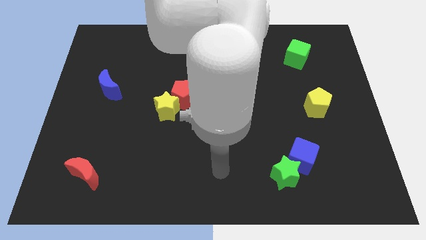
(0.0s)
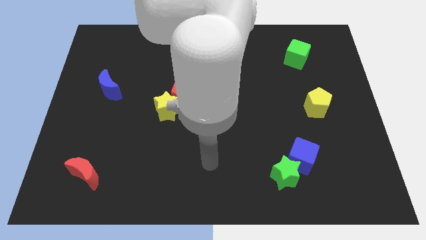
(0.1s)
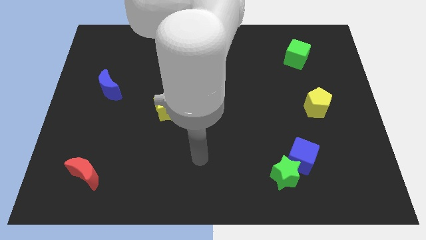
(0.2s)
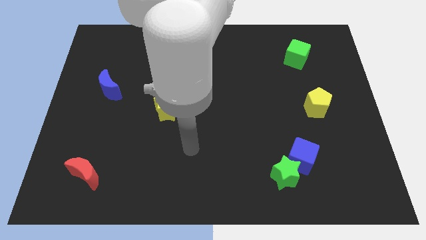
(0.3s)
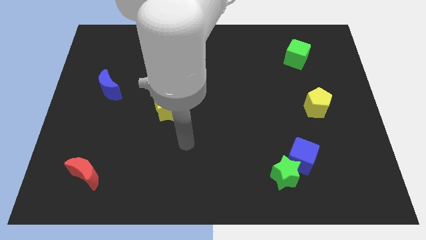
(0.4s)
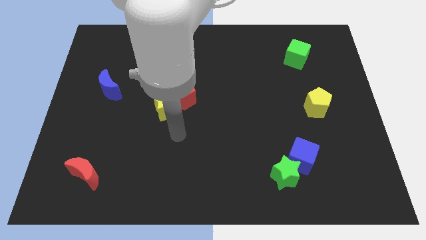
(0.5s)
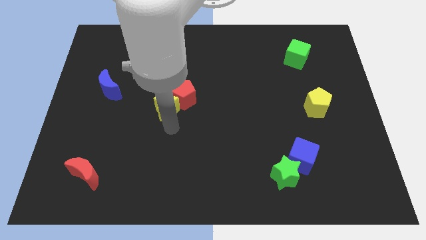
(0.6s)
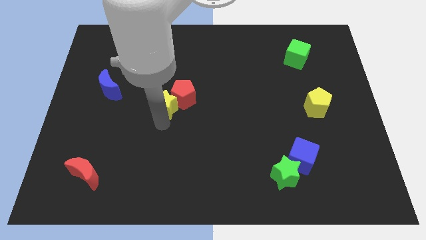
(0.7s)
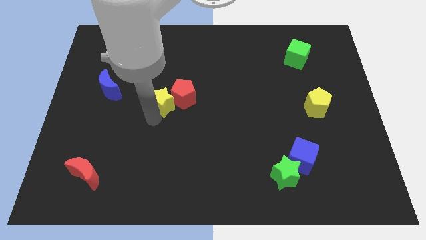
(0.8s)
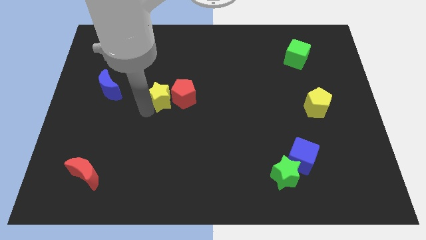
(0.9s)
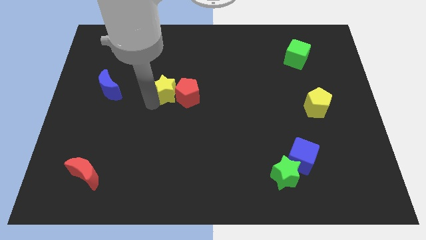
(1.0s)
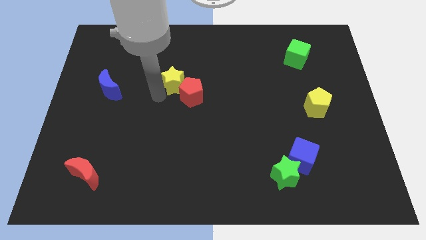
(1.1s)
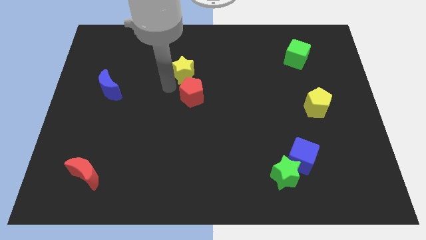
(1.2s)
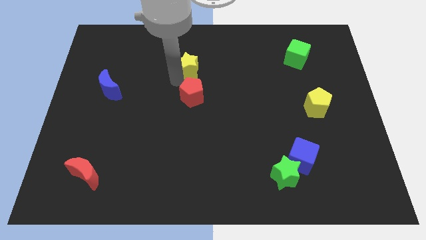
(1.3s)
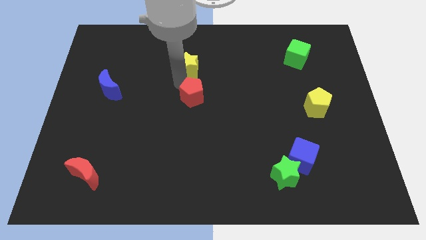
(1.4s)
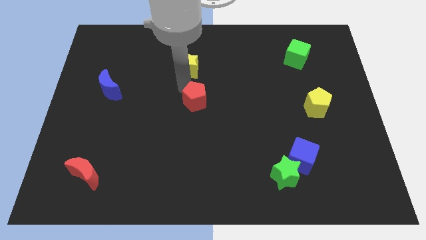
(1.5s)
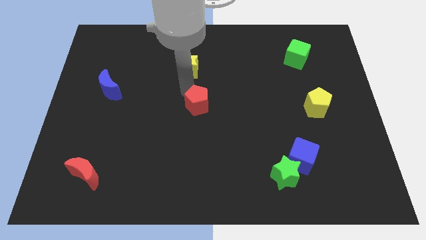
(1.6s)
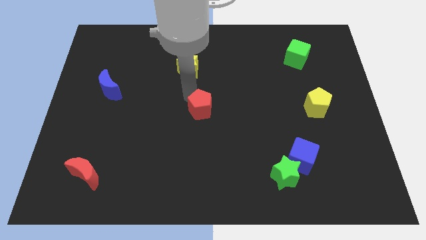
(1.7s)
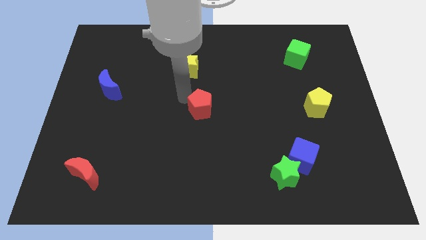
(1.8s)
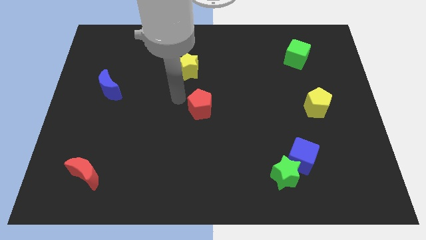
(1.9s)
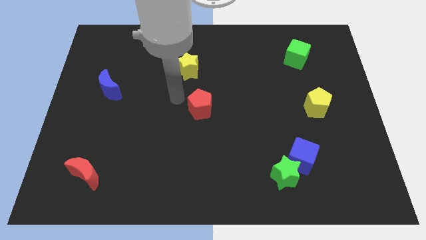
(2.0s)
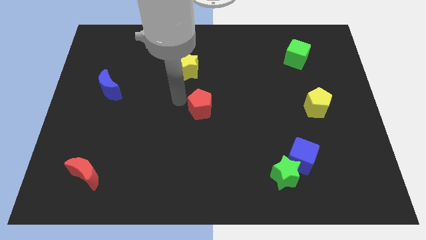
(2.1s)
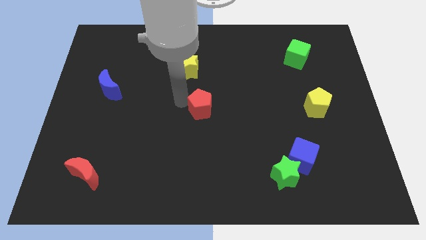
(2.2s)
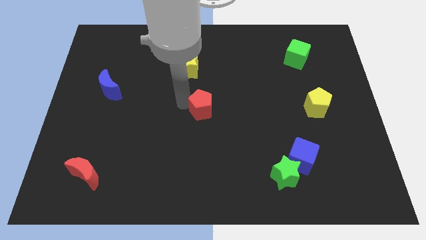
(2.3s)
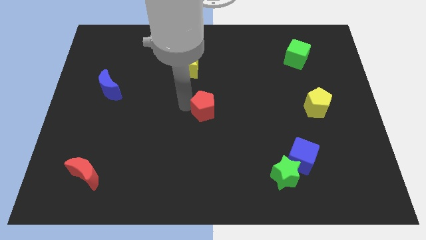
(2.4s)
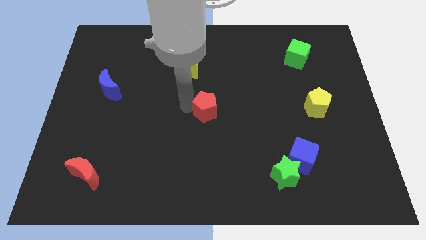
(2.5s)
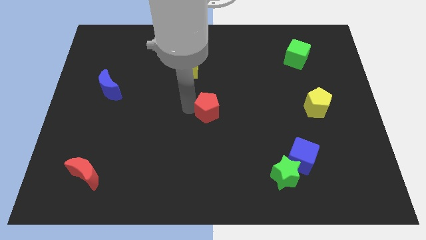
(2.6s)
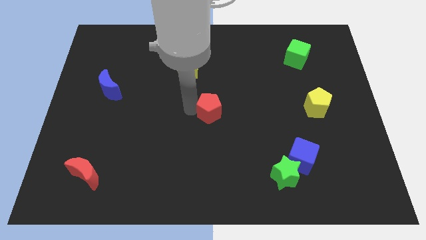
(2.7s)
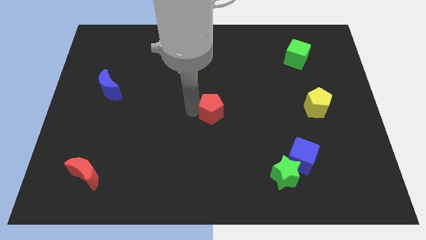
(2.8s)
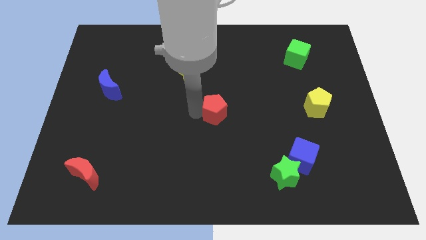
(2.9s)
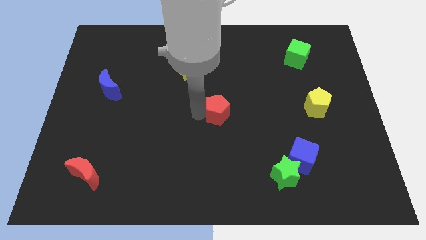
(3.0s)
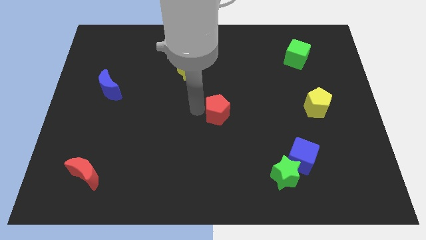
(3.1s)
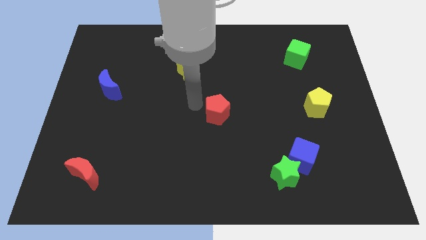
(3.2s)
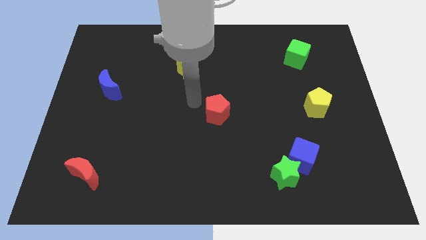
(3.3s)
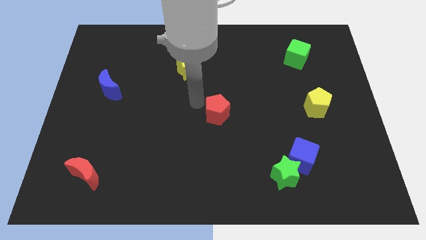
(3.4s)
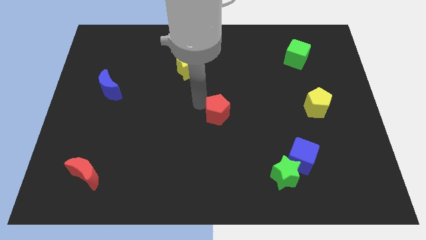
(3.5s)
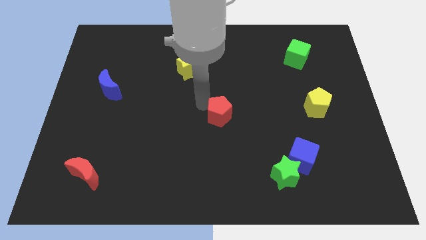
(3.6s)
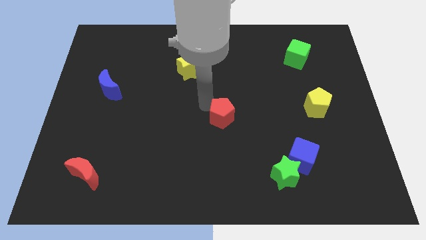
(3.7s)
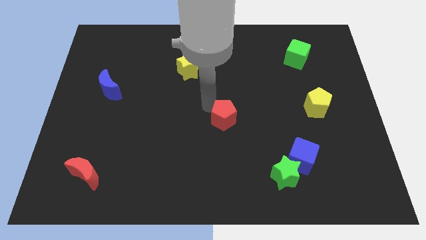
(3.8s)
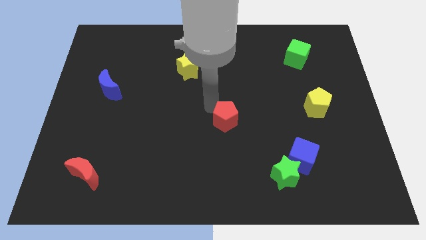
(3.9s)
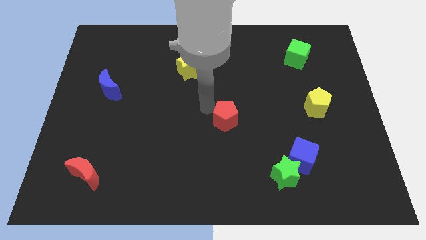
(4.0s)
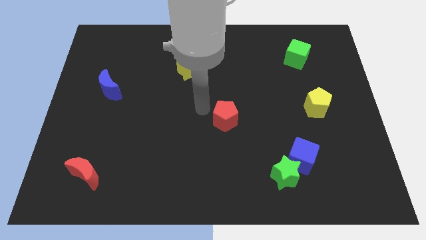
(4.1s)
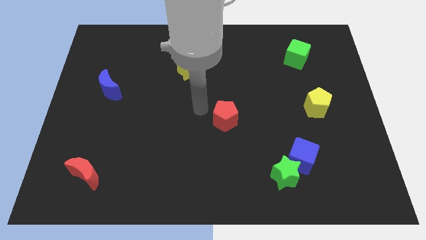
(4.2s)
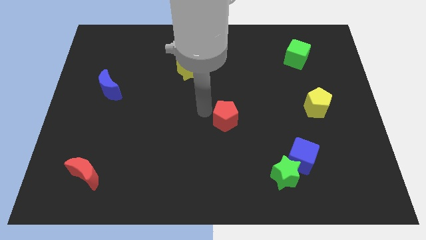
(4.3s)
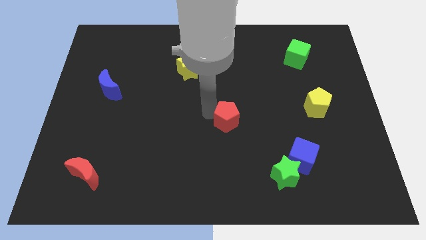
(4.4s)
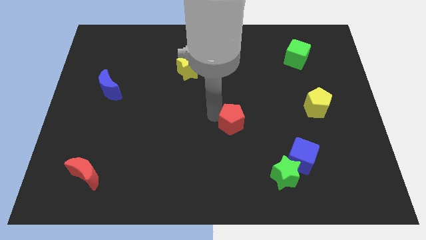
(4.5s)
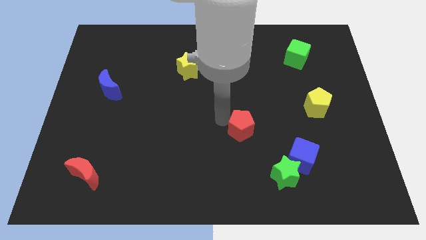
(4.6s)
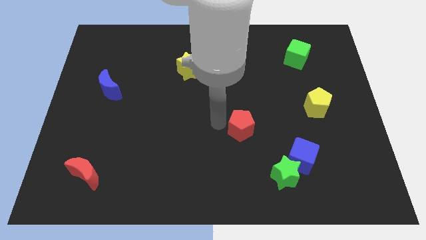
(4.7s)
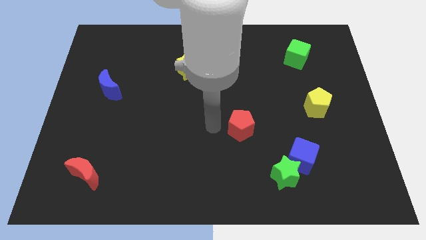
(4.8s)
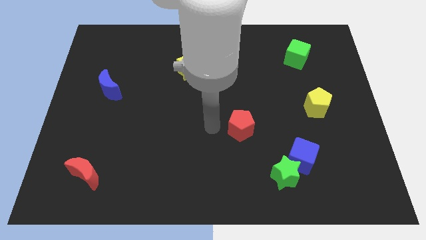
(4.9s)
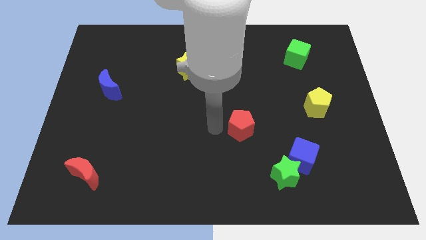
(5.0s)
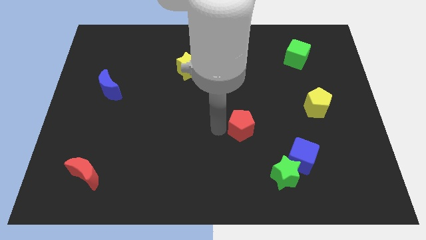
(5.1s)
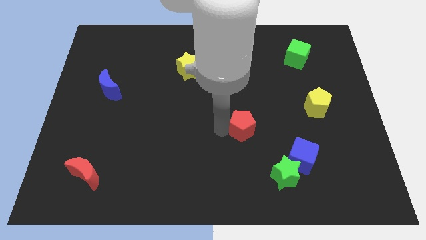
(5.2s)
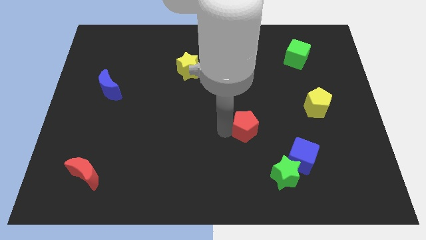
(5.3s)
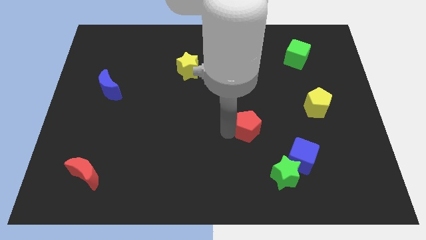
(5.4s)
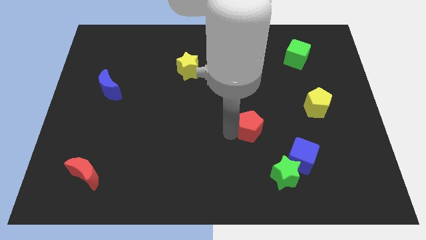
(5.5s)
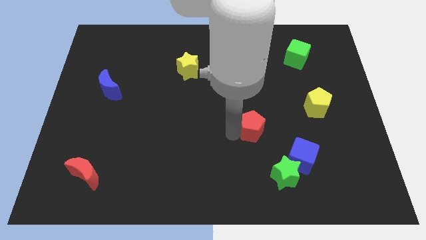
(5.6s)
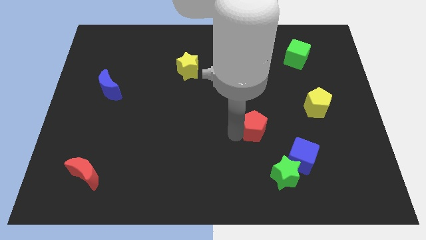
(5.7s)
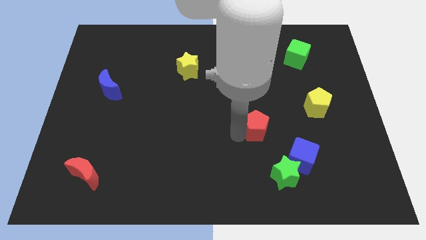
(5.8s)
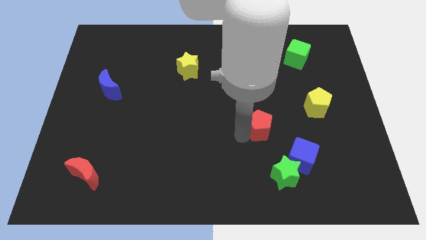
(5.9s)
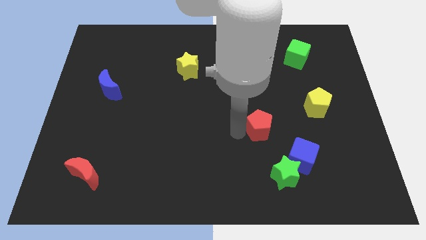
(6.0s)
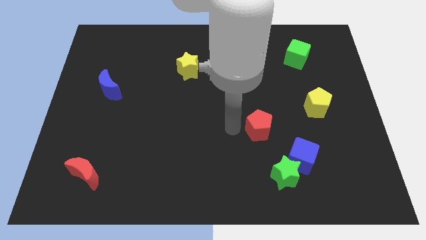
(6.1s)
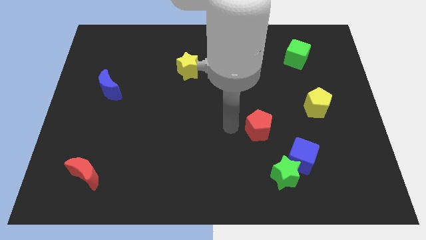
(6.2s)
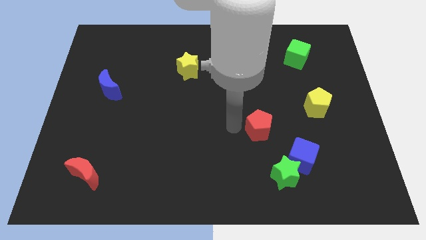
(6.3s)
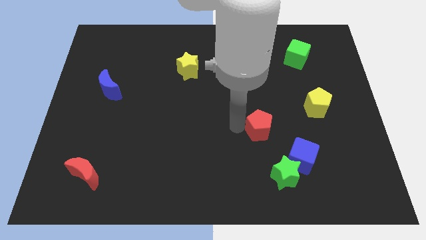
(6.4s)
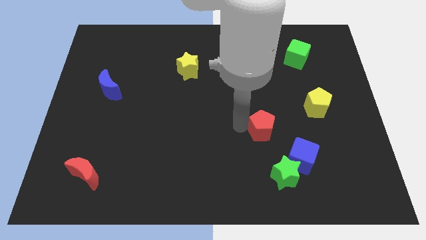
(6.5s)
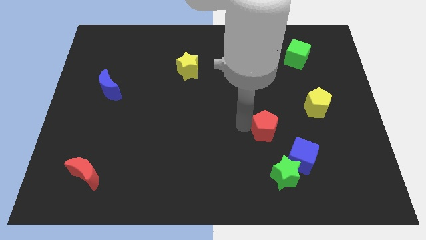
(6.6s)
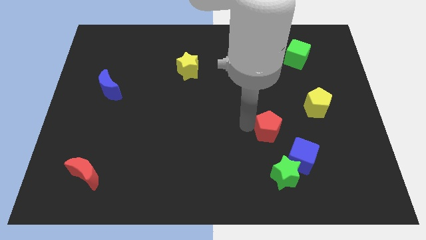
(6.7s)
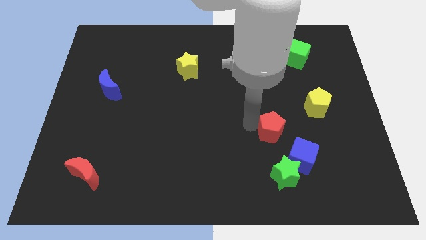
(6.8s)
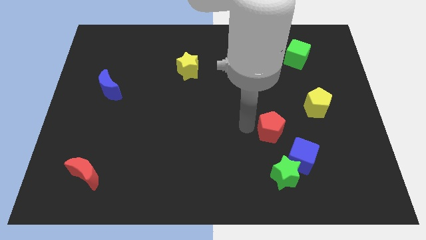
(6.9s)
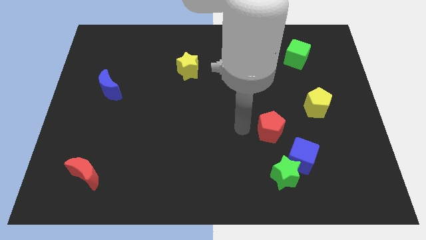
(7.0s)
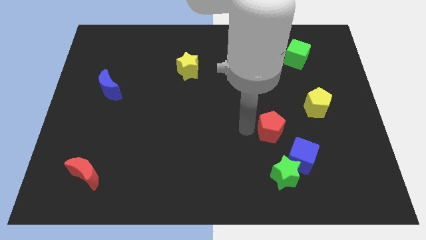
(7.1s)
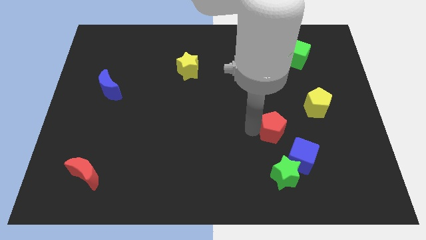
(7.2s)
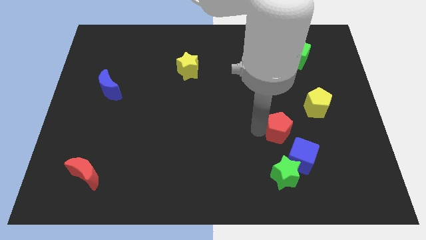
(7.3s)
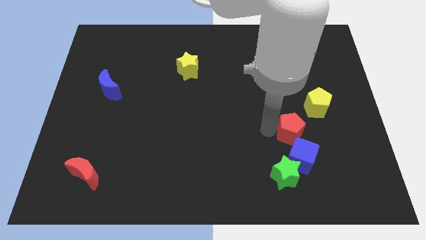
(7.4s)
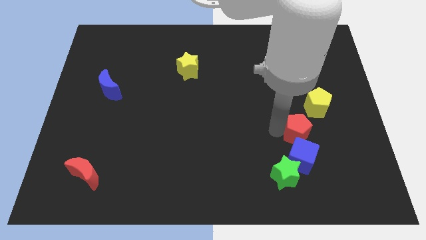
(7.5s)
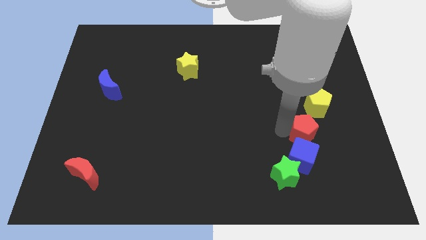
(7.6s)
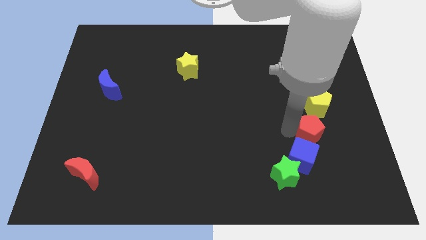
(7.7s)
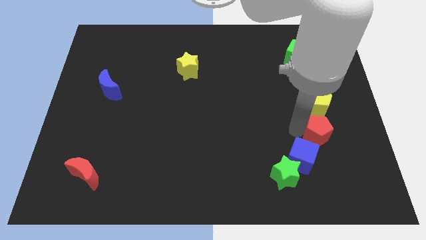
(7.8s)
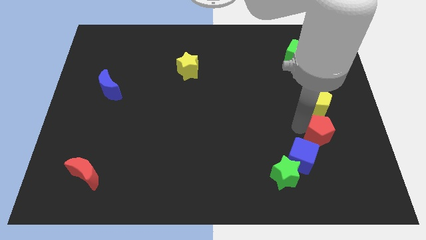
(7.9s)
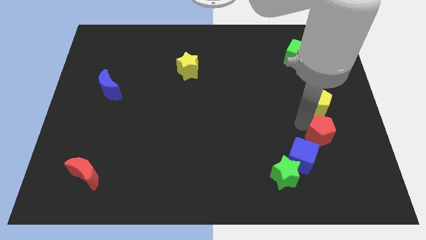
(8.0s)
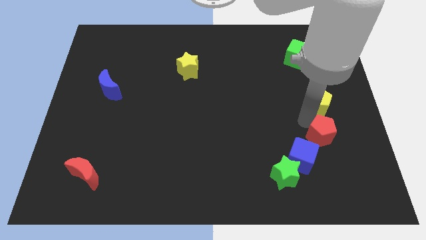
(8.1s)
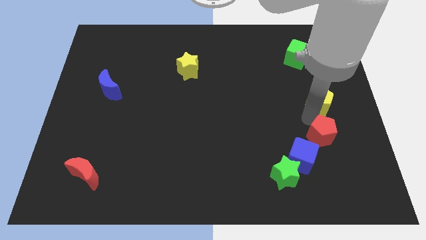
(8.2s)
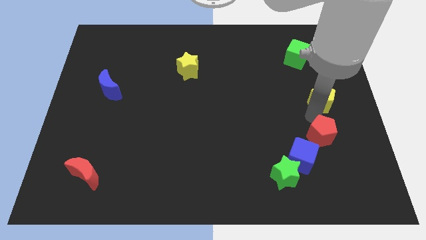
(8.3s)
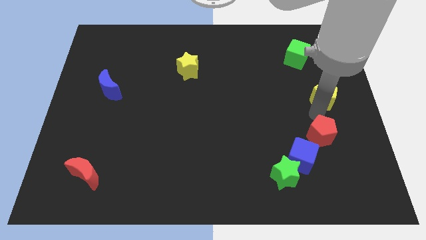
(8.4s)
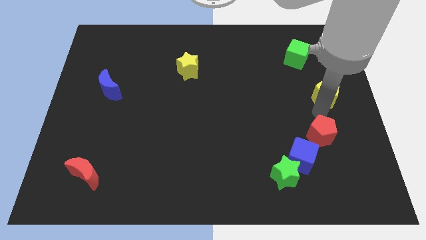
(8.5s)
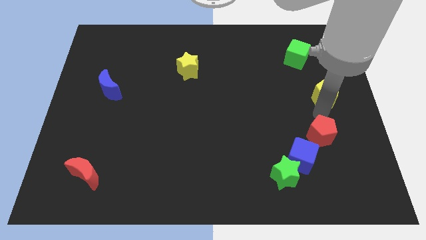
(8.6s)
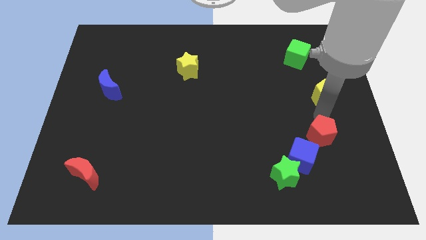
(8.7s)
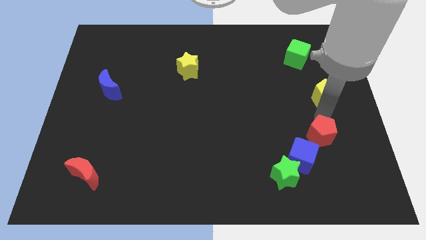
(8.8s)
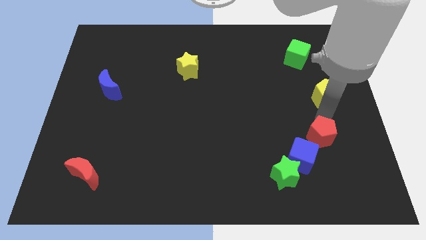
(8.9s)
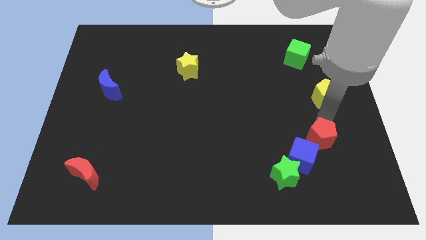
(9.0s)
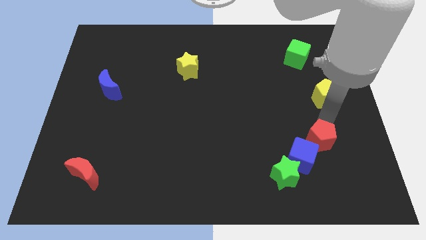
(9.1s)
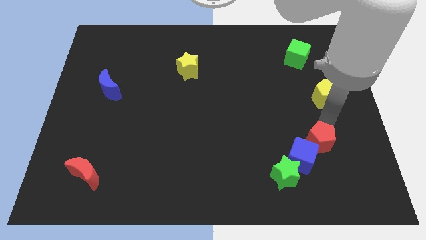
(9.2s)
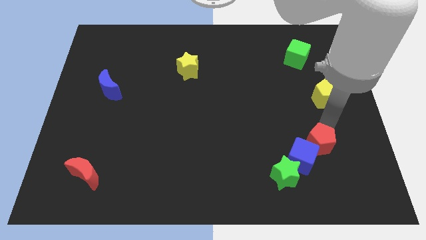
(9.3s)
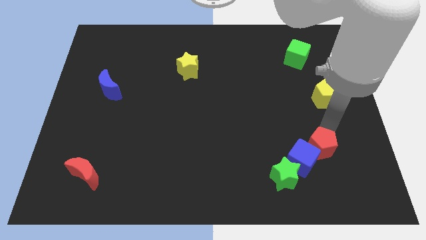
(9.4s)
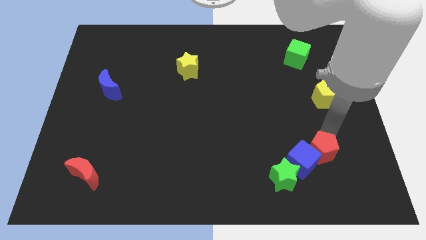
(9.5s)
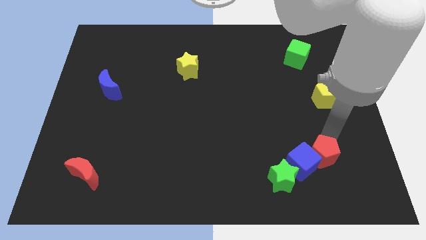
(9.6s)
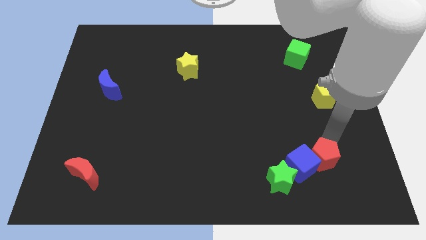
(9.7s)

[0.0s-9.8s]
put the red pentagon diagonally down and to the right of the blue cube
